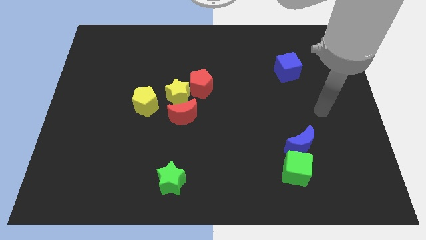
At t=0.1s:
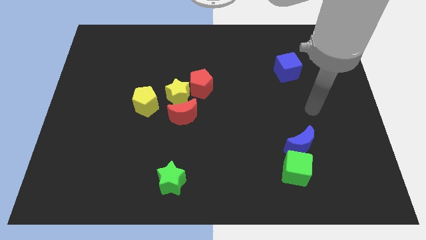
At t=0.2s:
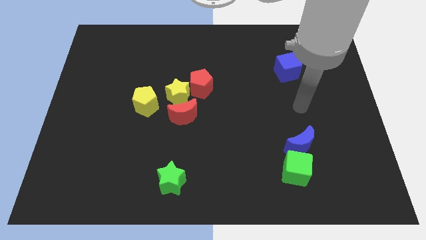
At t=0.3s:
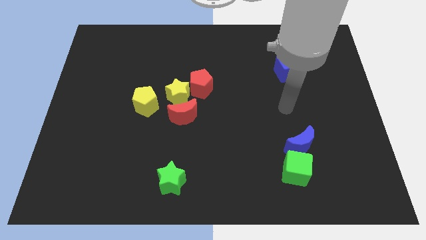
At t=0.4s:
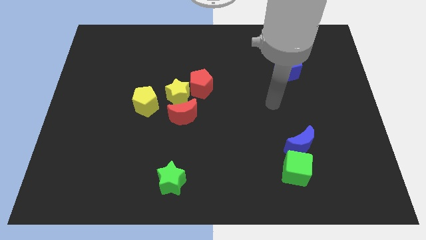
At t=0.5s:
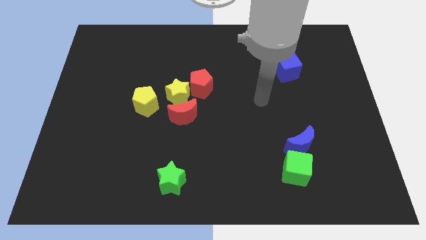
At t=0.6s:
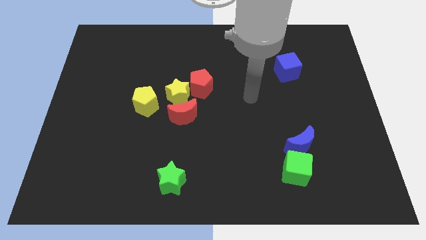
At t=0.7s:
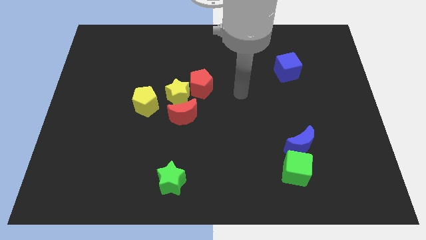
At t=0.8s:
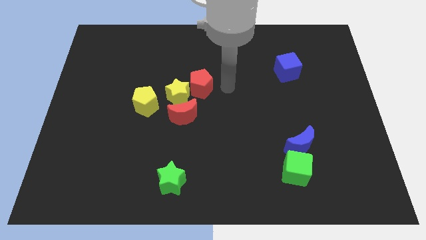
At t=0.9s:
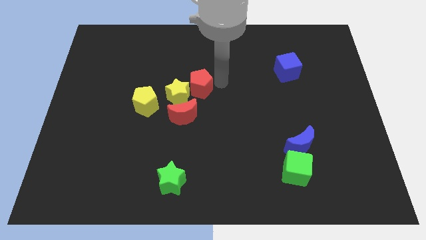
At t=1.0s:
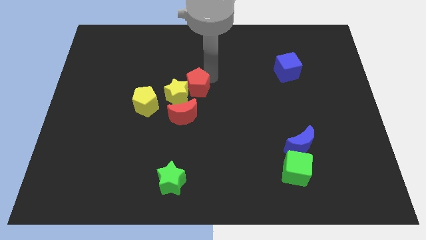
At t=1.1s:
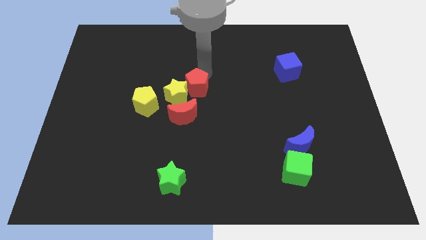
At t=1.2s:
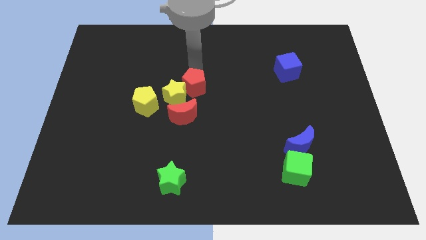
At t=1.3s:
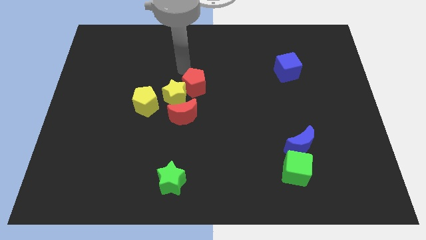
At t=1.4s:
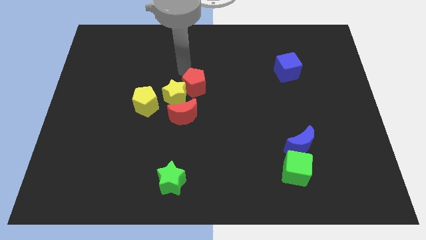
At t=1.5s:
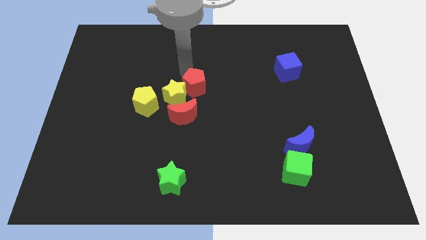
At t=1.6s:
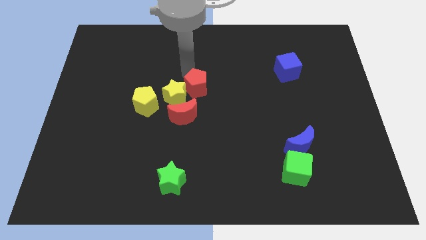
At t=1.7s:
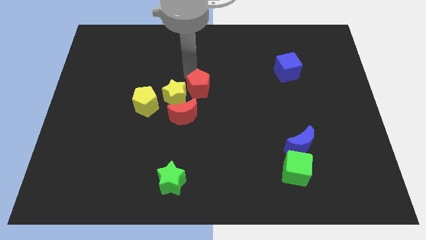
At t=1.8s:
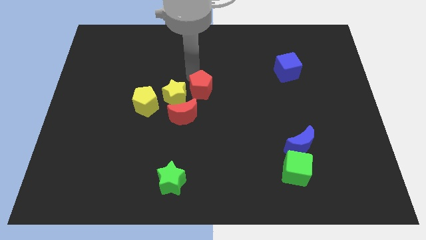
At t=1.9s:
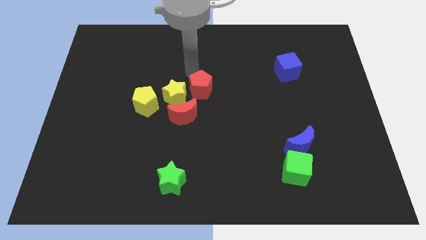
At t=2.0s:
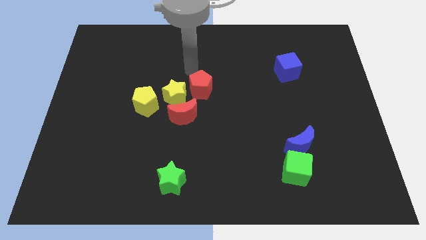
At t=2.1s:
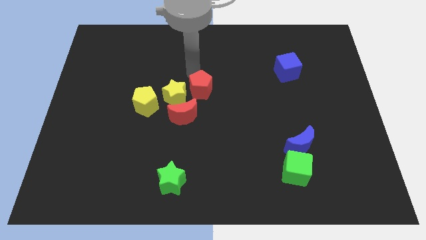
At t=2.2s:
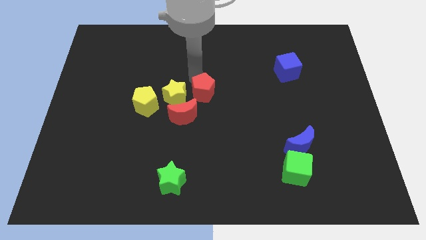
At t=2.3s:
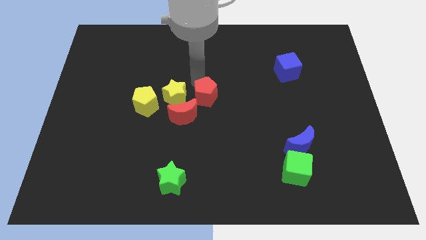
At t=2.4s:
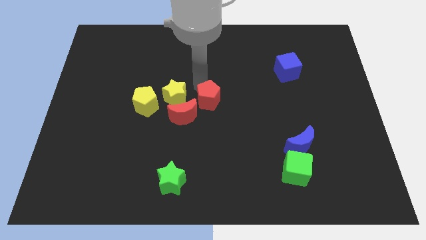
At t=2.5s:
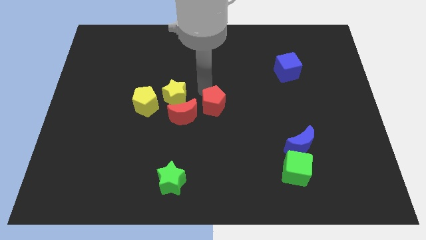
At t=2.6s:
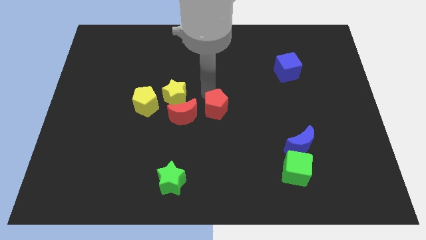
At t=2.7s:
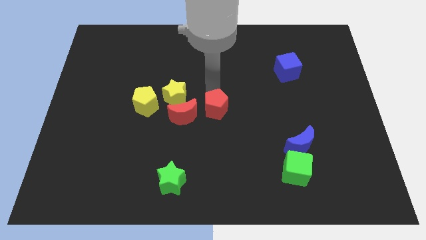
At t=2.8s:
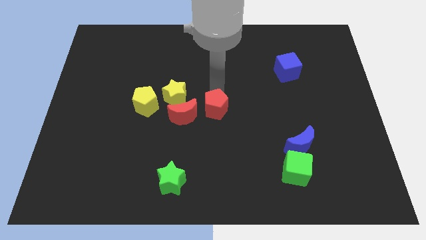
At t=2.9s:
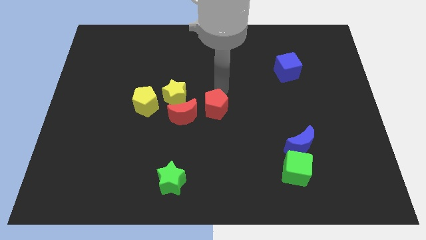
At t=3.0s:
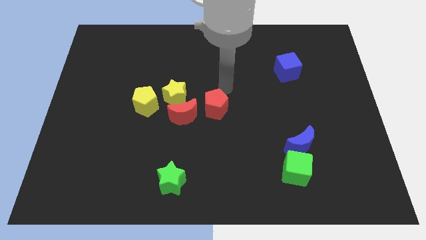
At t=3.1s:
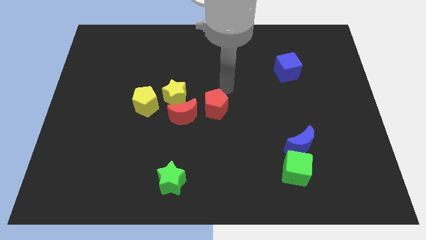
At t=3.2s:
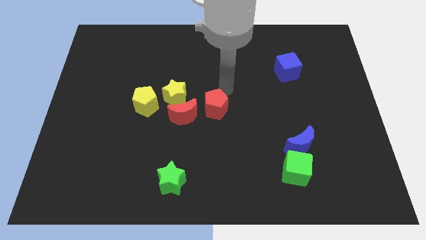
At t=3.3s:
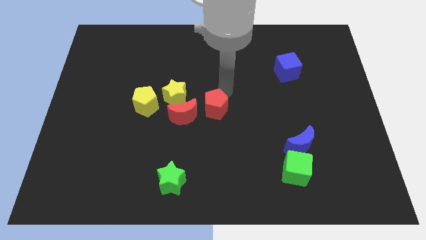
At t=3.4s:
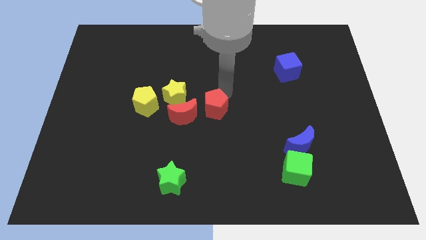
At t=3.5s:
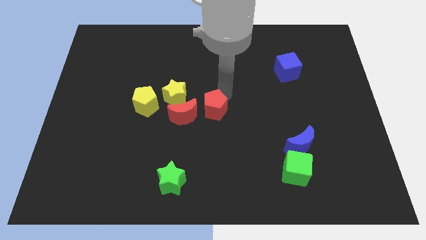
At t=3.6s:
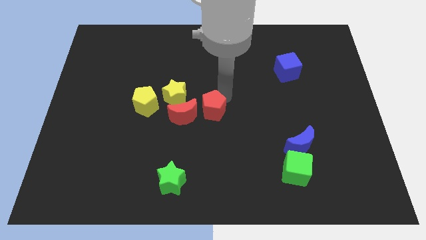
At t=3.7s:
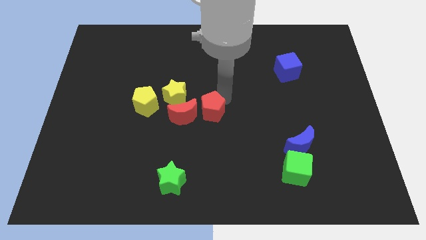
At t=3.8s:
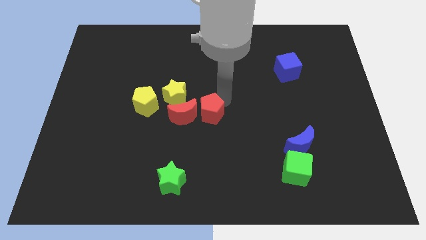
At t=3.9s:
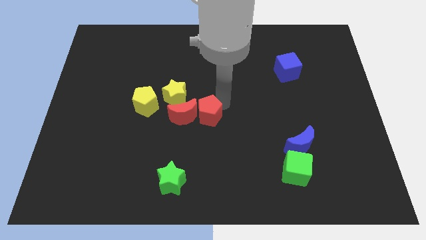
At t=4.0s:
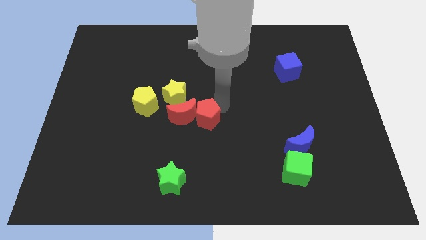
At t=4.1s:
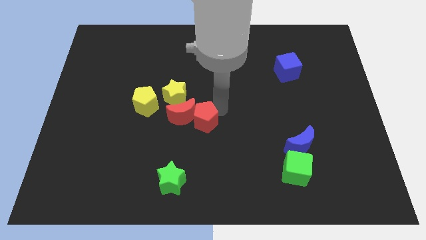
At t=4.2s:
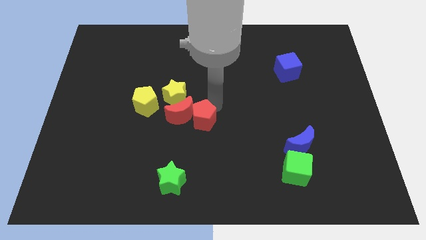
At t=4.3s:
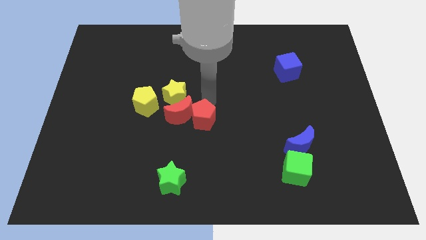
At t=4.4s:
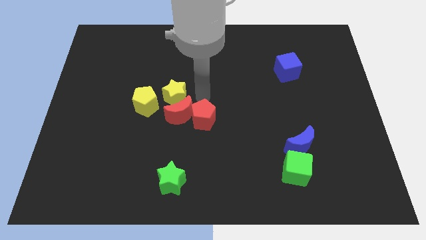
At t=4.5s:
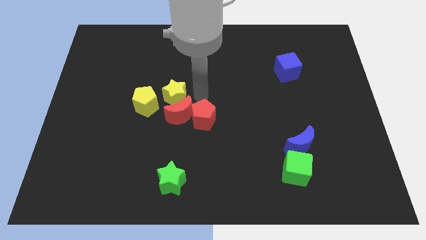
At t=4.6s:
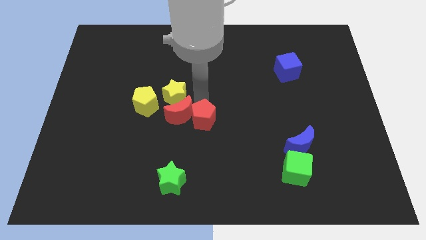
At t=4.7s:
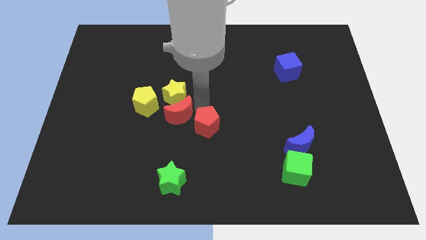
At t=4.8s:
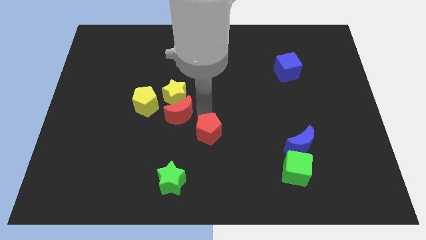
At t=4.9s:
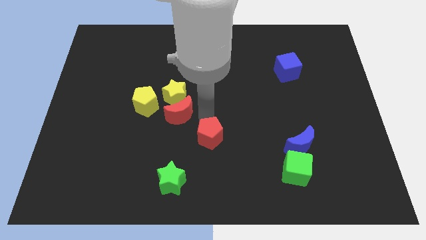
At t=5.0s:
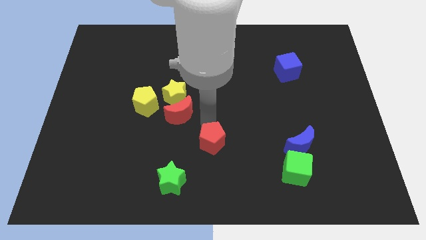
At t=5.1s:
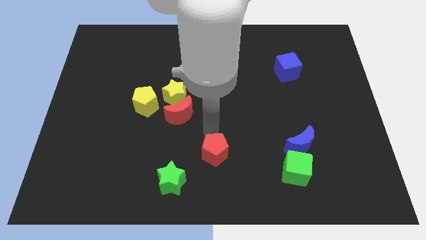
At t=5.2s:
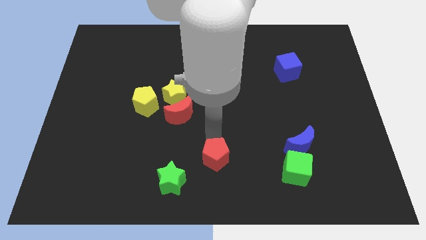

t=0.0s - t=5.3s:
push the red pentagon to the bottom
